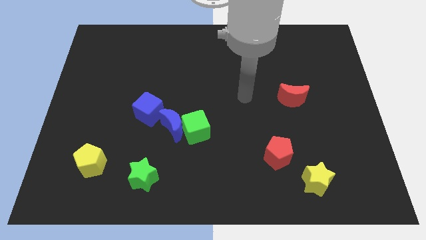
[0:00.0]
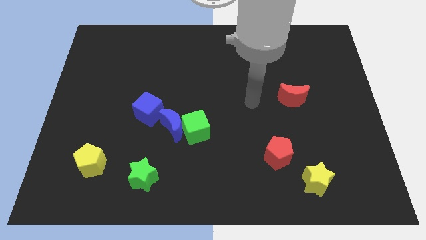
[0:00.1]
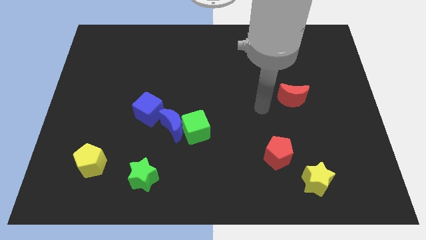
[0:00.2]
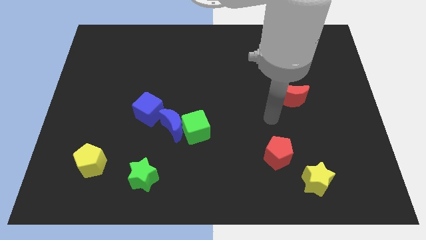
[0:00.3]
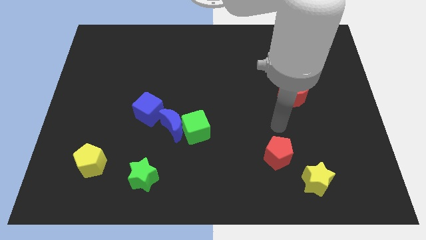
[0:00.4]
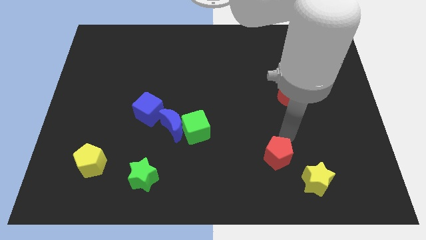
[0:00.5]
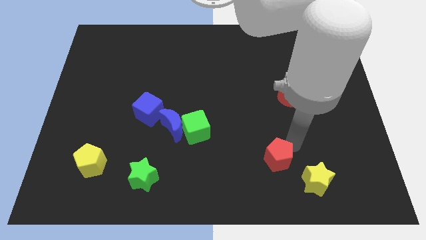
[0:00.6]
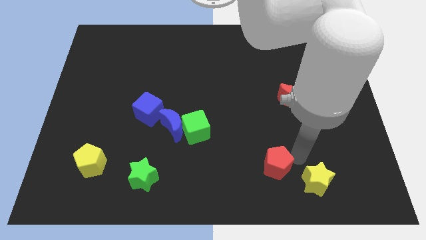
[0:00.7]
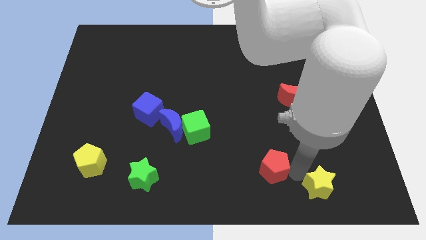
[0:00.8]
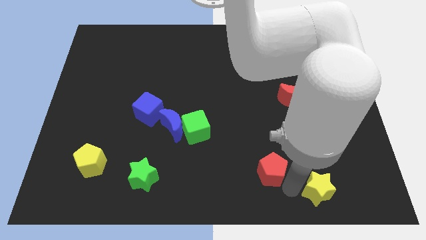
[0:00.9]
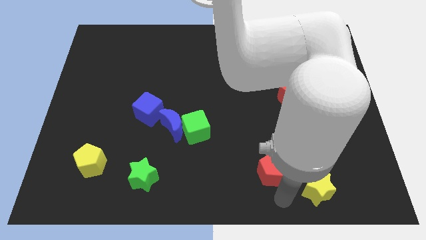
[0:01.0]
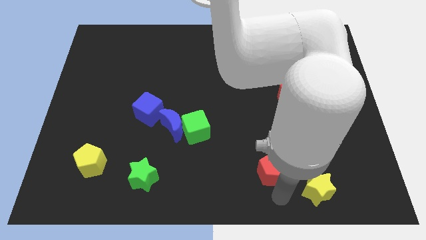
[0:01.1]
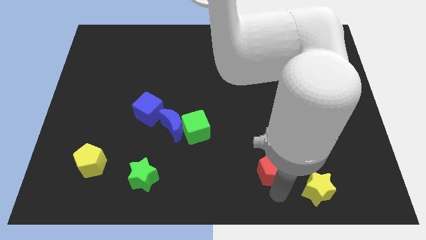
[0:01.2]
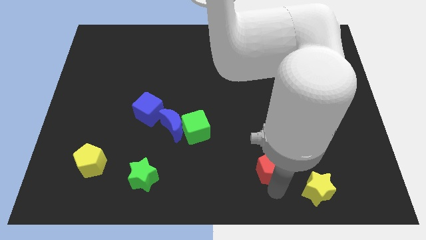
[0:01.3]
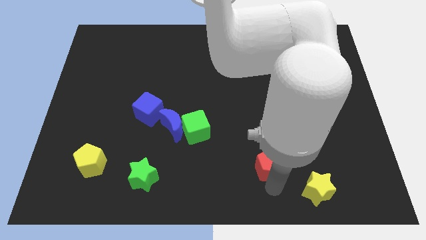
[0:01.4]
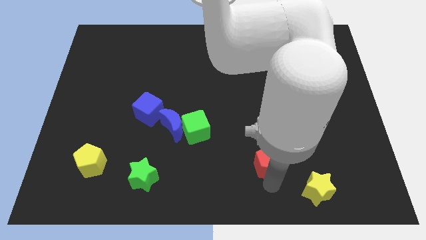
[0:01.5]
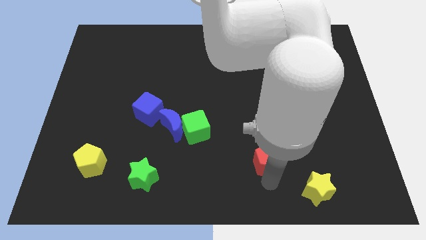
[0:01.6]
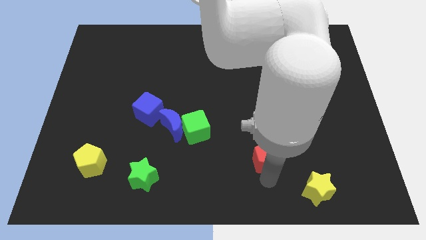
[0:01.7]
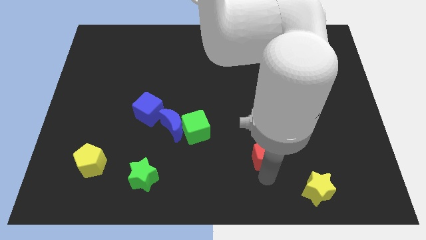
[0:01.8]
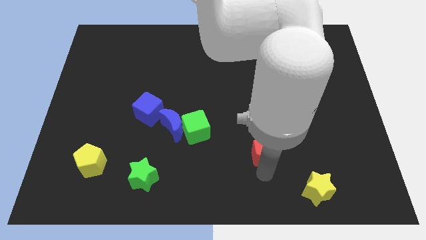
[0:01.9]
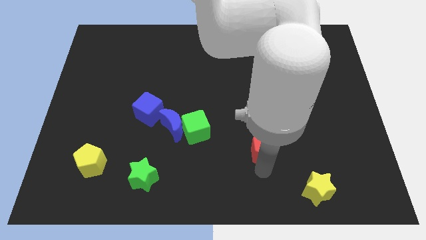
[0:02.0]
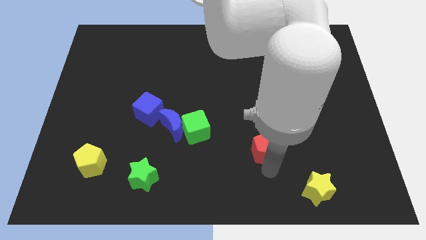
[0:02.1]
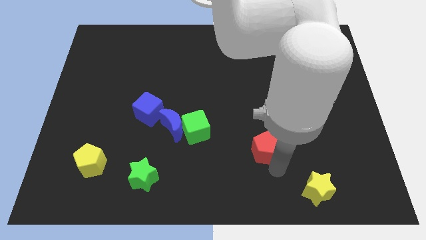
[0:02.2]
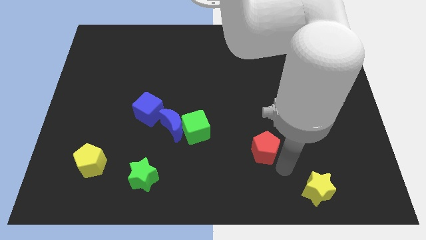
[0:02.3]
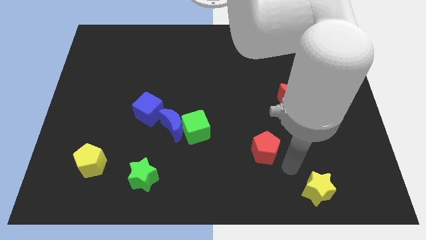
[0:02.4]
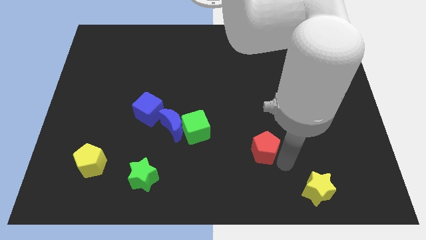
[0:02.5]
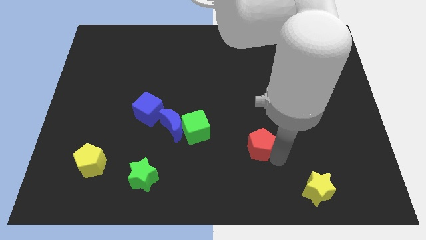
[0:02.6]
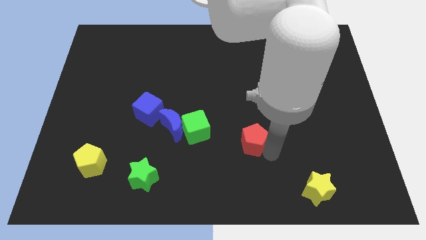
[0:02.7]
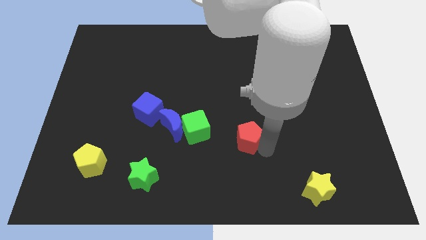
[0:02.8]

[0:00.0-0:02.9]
slide the red pentagon up and to the left diagonally a little bit

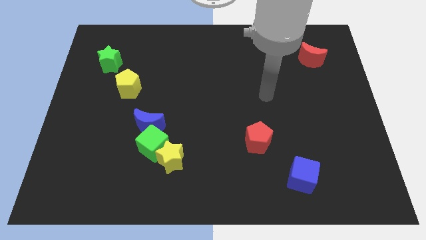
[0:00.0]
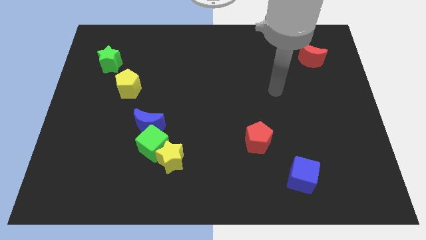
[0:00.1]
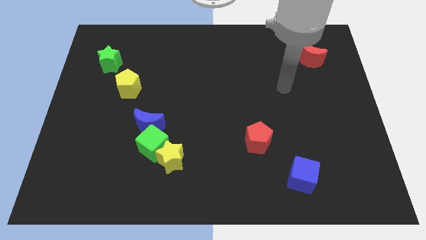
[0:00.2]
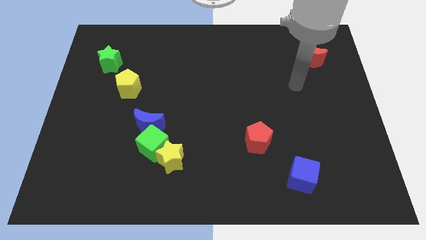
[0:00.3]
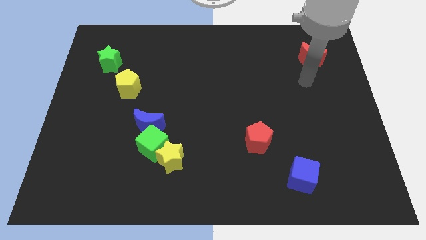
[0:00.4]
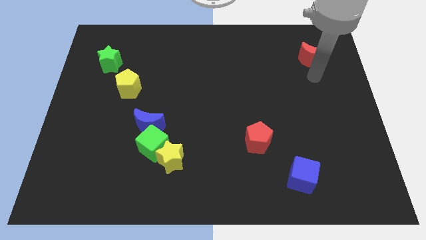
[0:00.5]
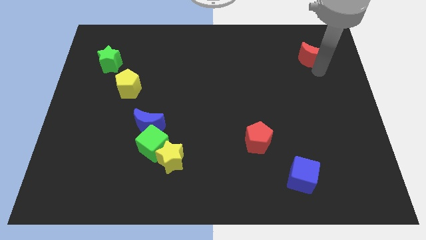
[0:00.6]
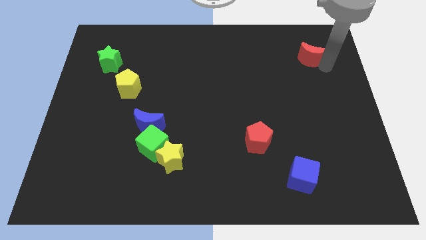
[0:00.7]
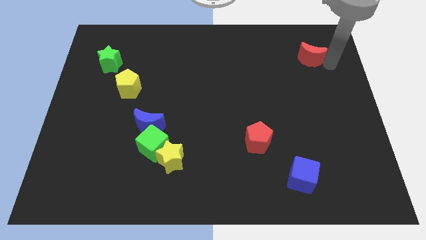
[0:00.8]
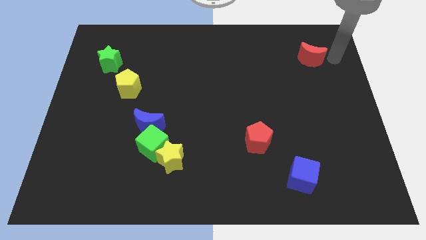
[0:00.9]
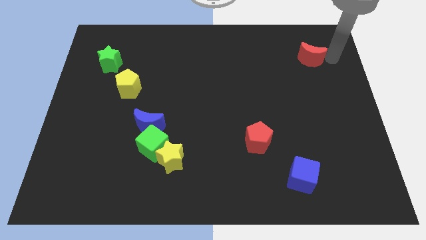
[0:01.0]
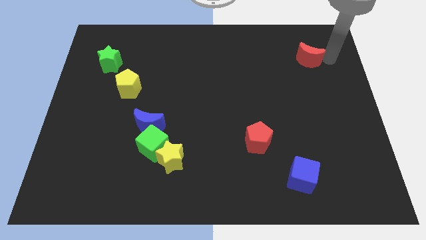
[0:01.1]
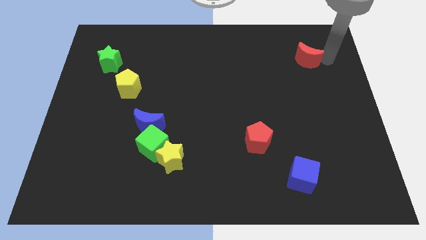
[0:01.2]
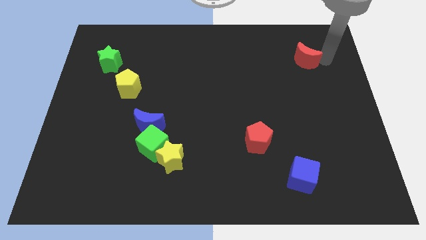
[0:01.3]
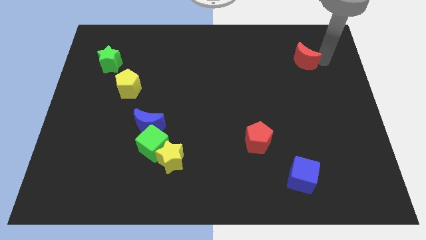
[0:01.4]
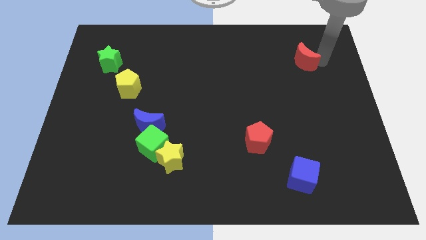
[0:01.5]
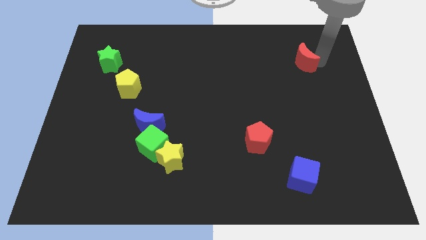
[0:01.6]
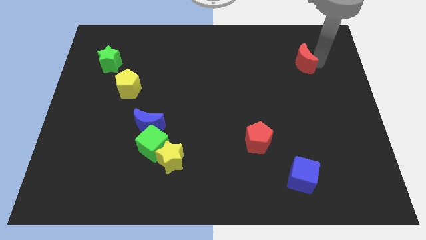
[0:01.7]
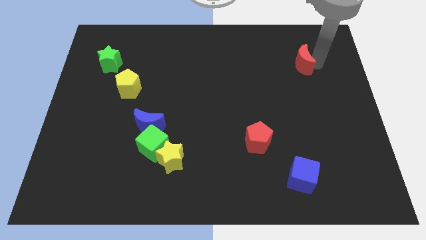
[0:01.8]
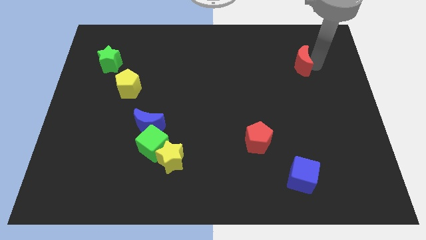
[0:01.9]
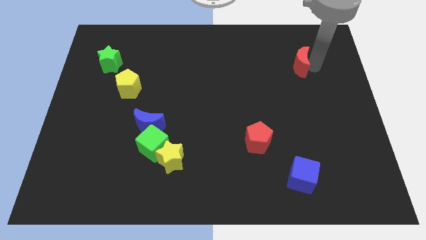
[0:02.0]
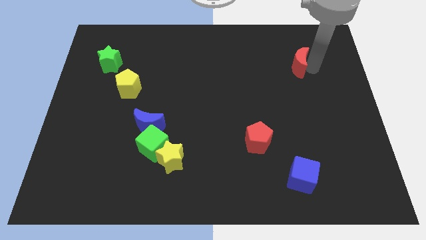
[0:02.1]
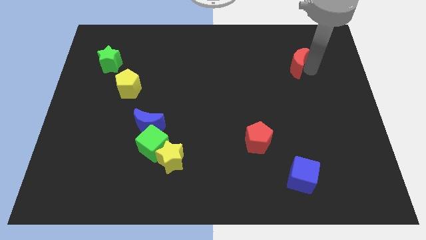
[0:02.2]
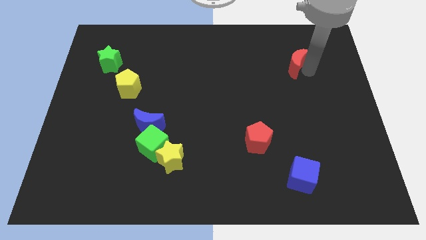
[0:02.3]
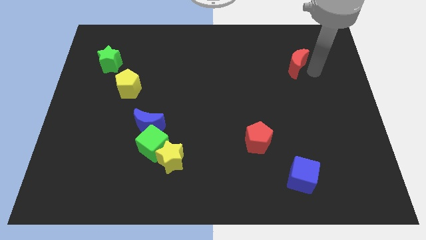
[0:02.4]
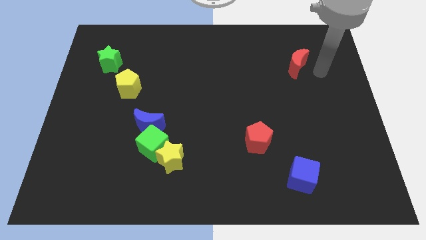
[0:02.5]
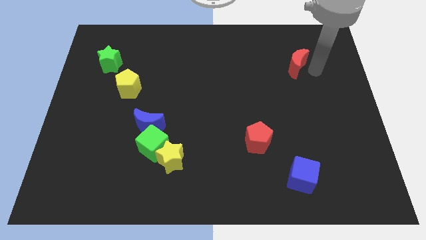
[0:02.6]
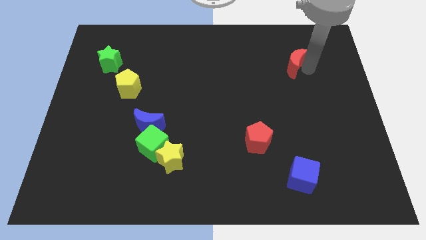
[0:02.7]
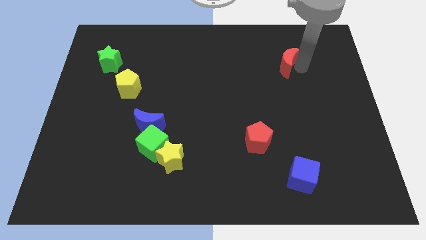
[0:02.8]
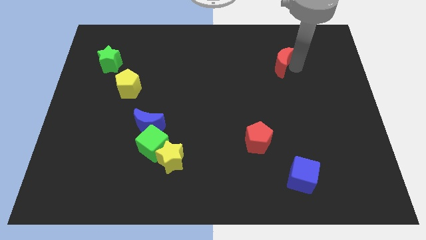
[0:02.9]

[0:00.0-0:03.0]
slightly push the red moon left

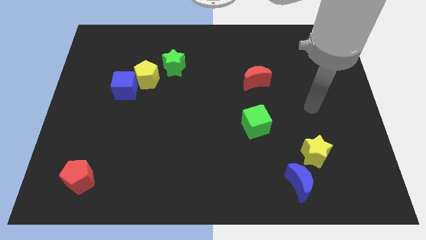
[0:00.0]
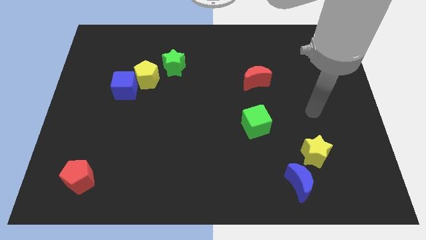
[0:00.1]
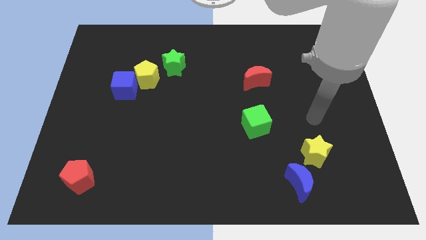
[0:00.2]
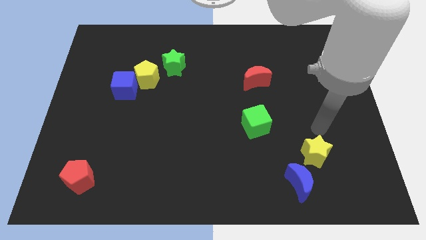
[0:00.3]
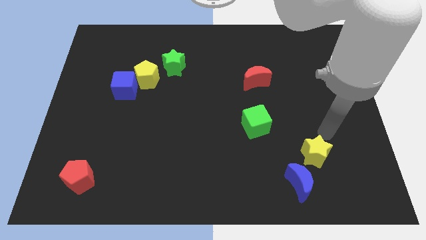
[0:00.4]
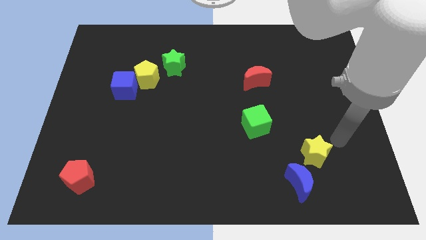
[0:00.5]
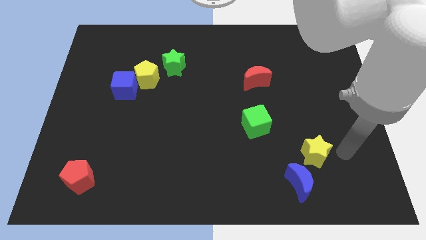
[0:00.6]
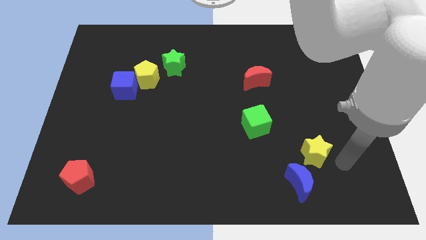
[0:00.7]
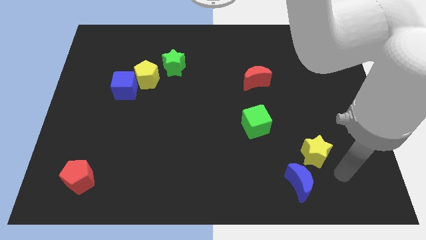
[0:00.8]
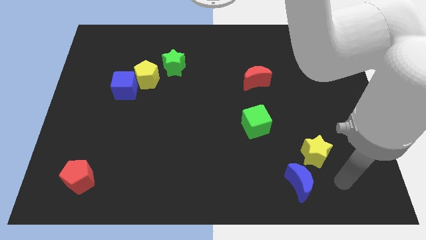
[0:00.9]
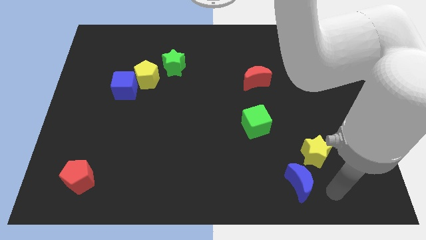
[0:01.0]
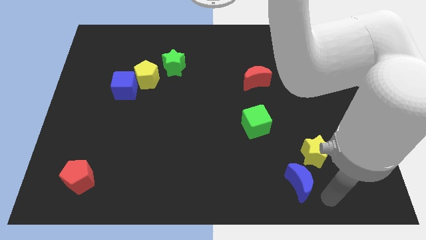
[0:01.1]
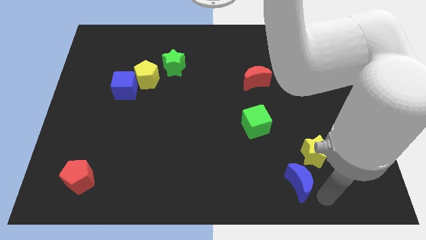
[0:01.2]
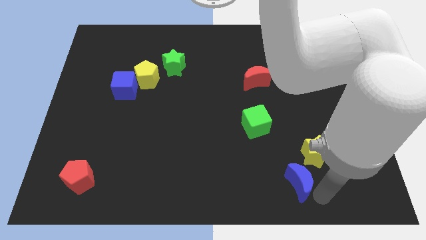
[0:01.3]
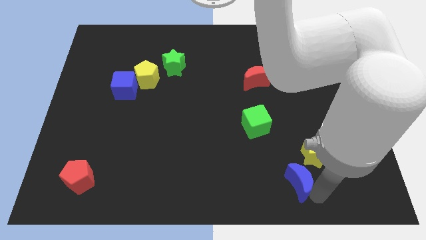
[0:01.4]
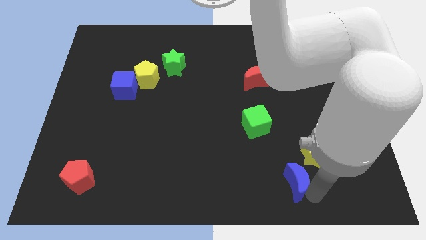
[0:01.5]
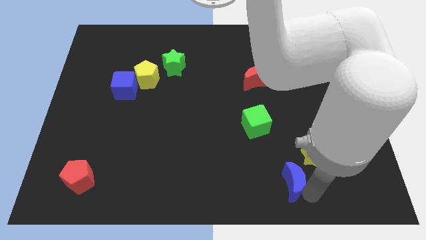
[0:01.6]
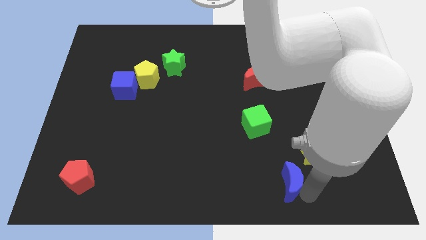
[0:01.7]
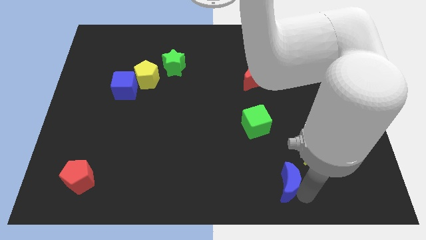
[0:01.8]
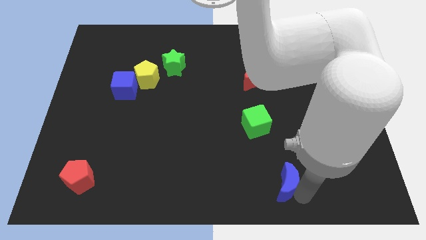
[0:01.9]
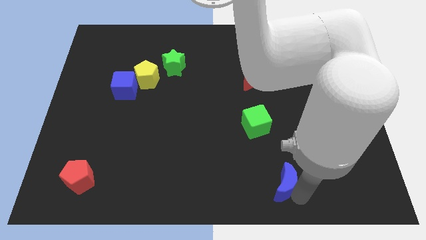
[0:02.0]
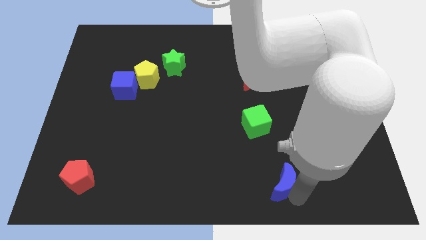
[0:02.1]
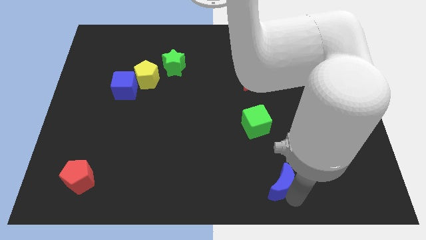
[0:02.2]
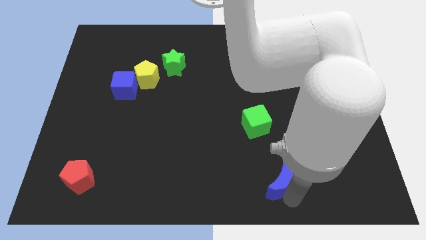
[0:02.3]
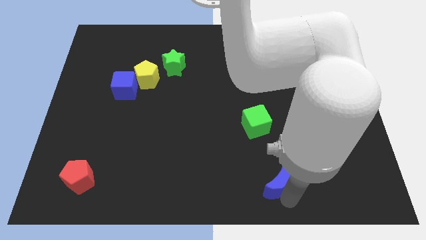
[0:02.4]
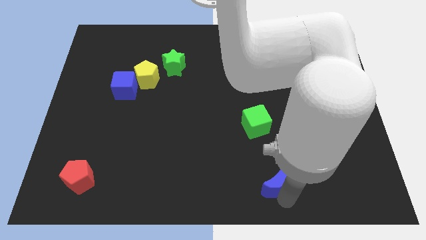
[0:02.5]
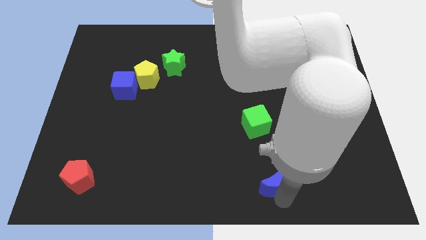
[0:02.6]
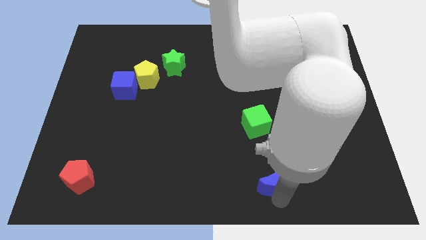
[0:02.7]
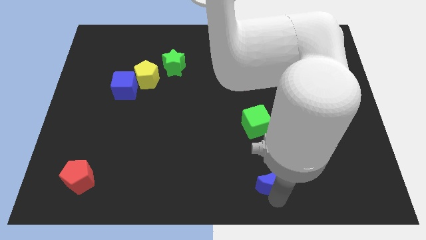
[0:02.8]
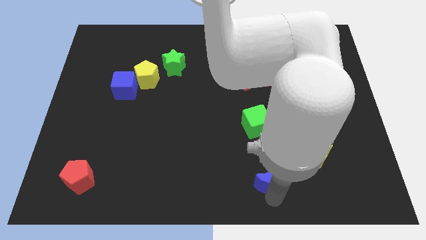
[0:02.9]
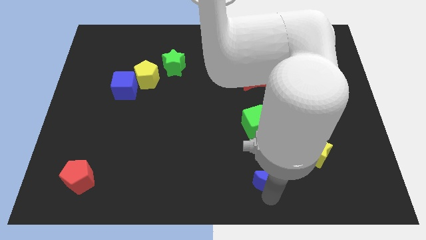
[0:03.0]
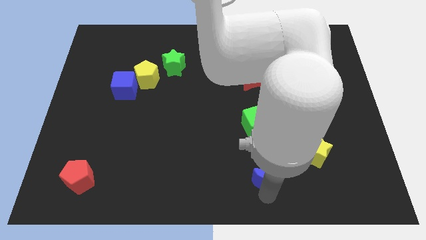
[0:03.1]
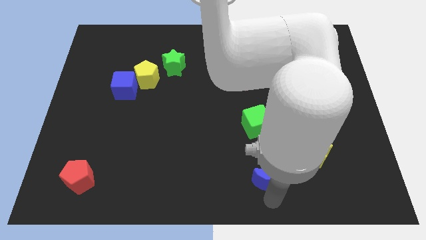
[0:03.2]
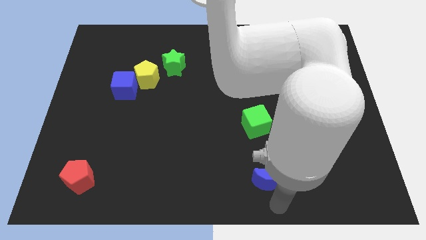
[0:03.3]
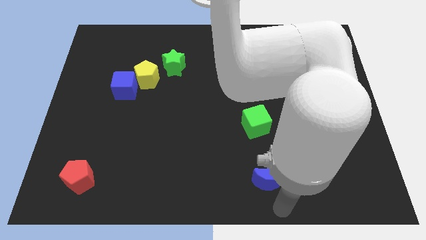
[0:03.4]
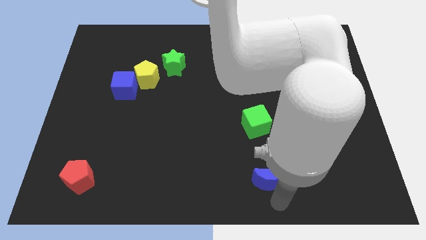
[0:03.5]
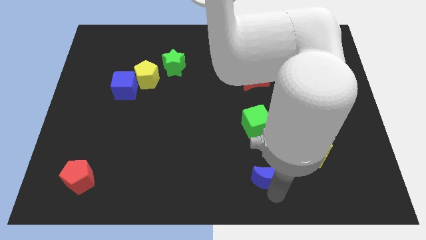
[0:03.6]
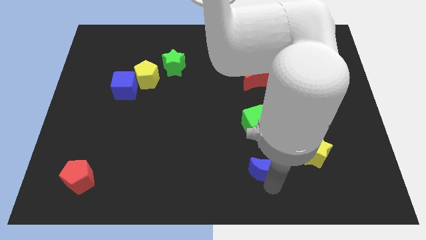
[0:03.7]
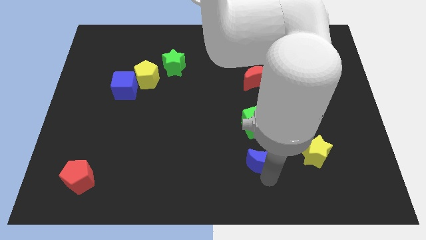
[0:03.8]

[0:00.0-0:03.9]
slightly slide the blue moon up and left
